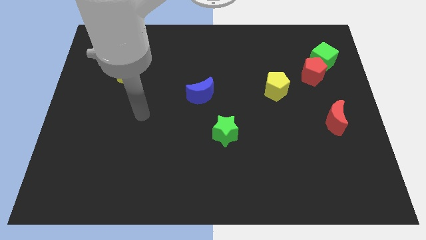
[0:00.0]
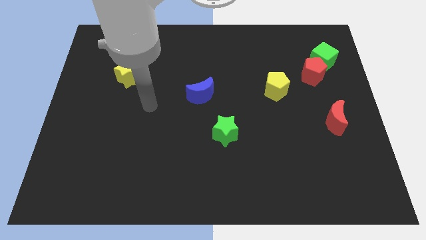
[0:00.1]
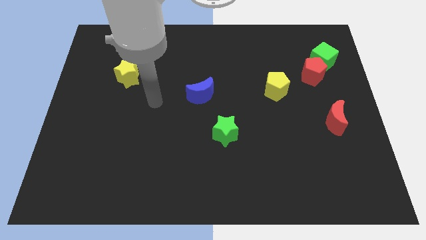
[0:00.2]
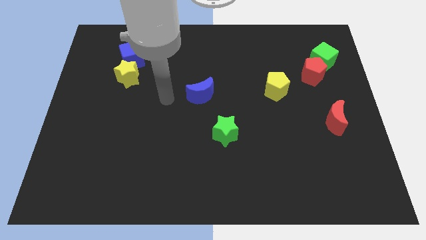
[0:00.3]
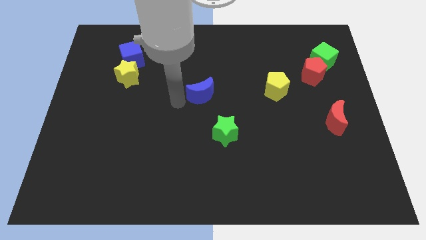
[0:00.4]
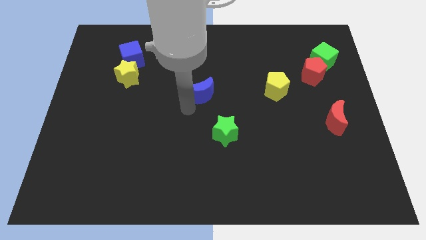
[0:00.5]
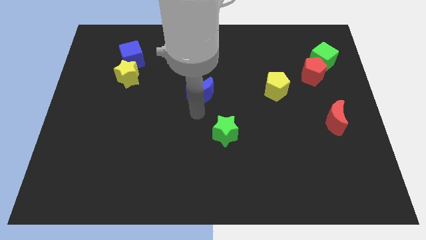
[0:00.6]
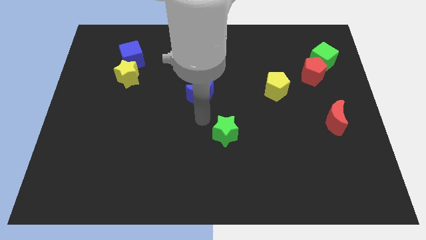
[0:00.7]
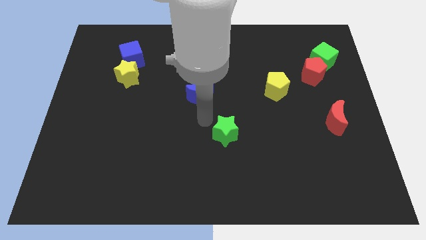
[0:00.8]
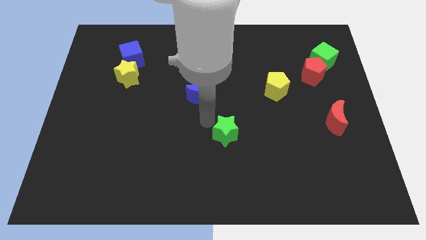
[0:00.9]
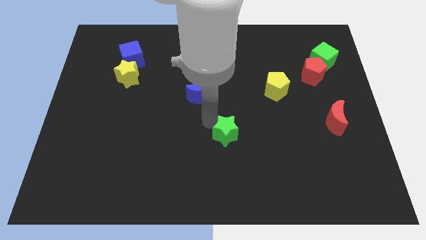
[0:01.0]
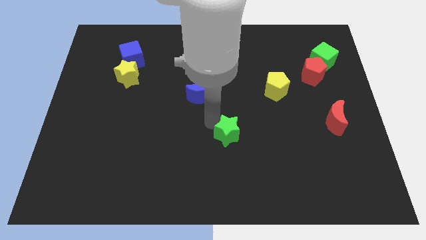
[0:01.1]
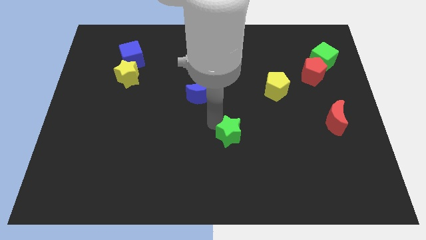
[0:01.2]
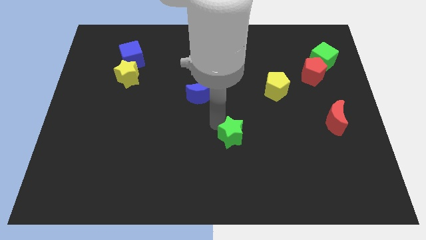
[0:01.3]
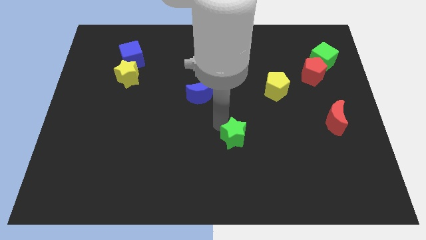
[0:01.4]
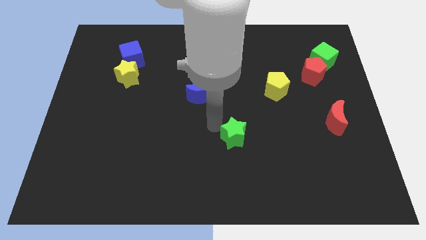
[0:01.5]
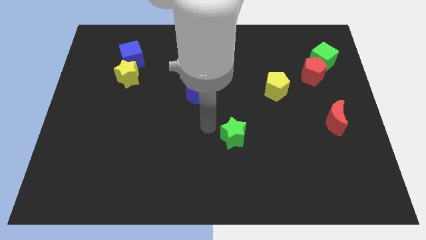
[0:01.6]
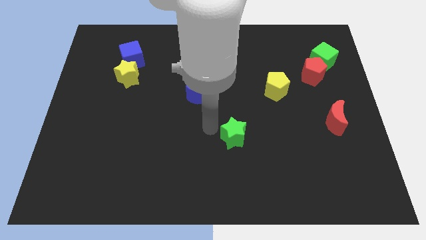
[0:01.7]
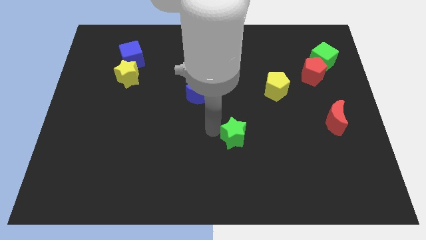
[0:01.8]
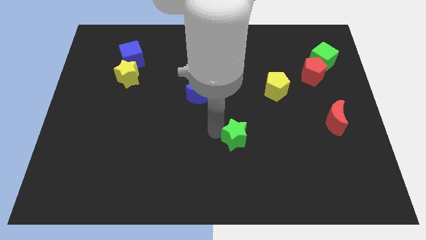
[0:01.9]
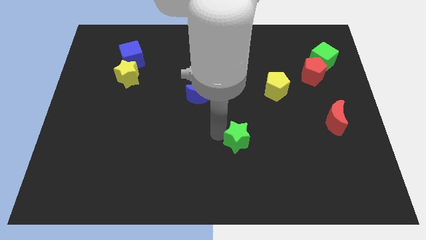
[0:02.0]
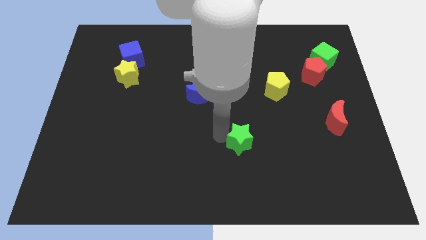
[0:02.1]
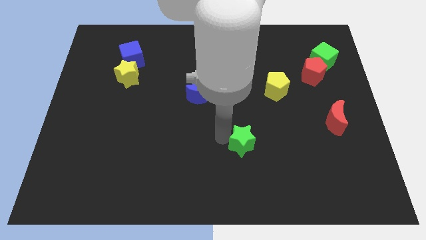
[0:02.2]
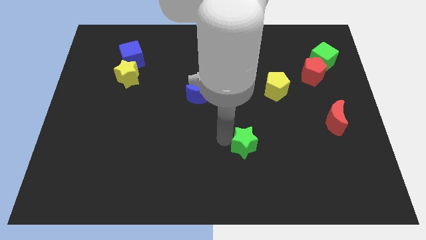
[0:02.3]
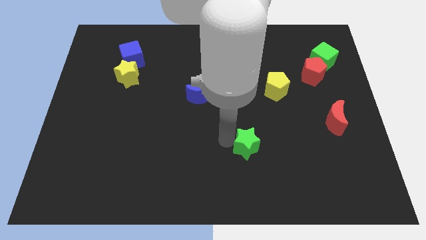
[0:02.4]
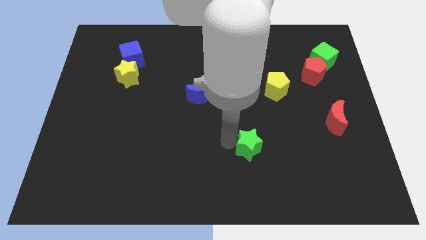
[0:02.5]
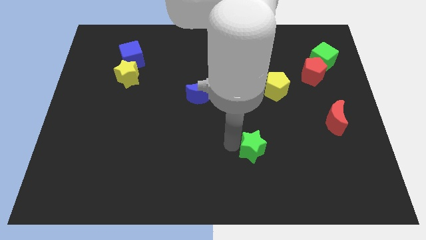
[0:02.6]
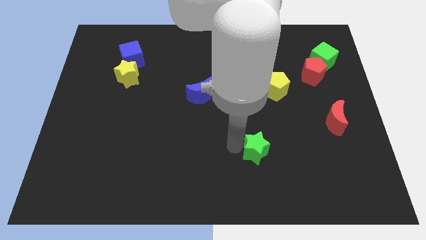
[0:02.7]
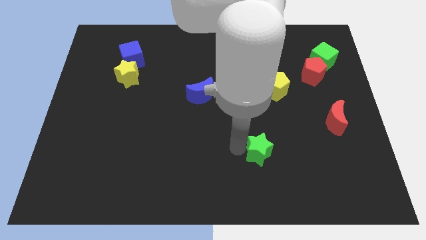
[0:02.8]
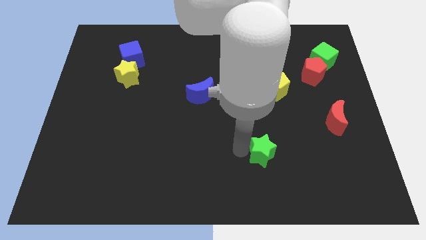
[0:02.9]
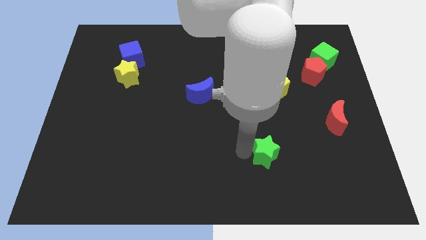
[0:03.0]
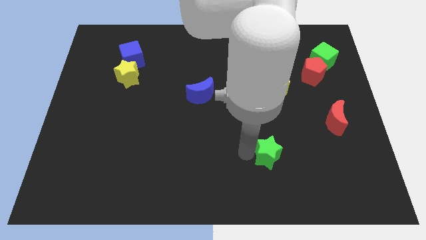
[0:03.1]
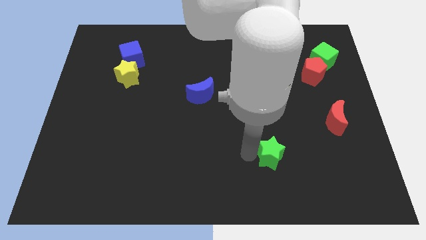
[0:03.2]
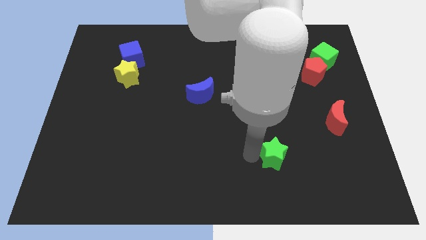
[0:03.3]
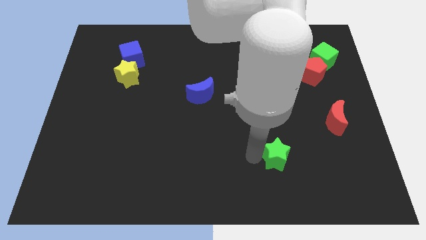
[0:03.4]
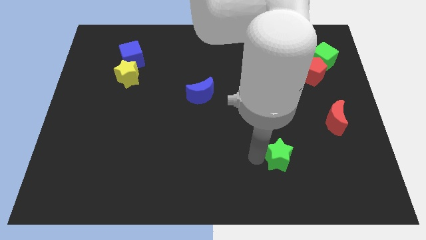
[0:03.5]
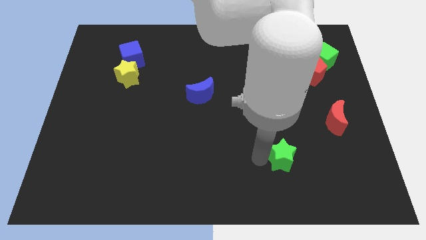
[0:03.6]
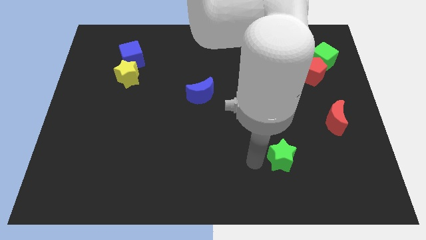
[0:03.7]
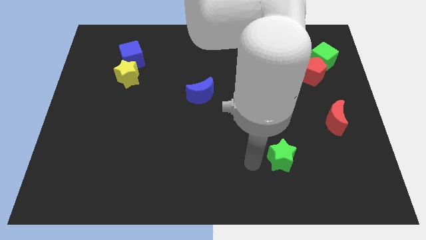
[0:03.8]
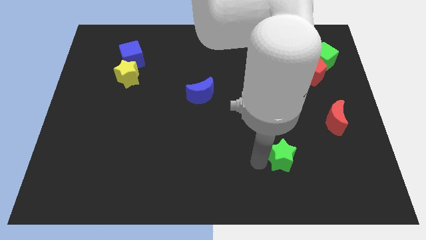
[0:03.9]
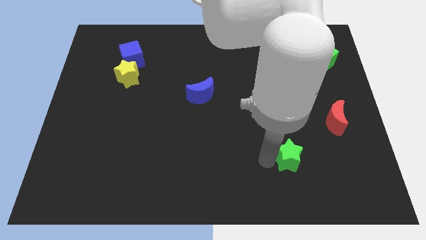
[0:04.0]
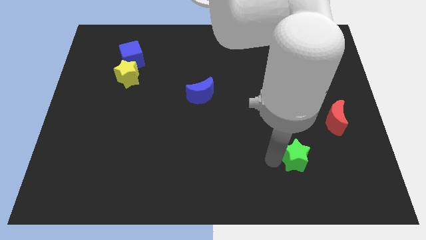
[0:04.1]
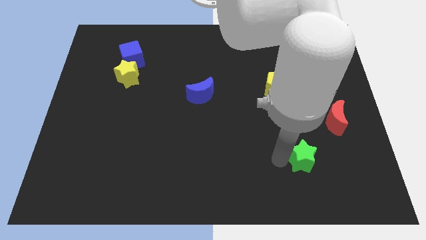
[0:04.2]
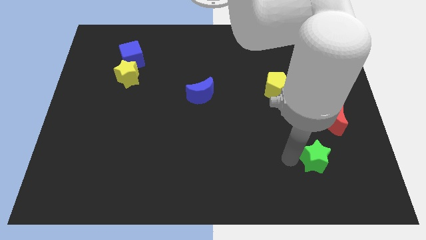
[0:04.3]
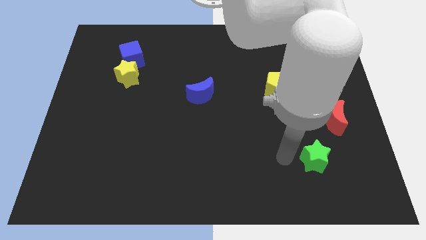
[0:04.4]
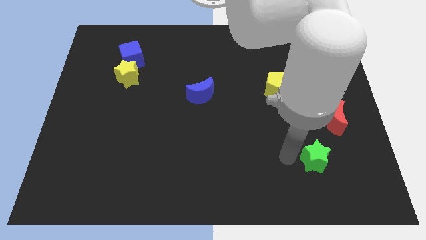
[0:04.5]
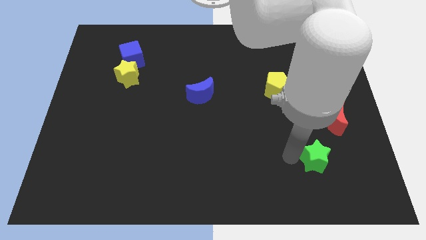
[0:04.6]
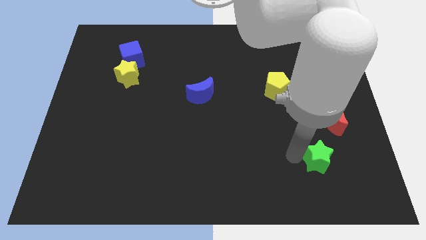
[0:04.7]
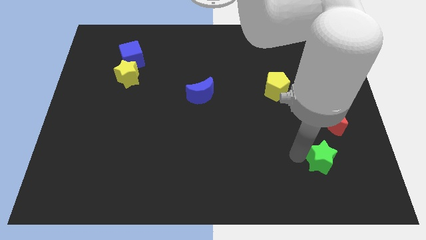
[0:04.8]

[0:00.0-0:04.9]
put the green star to the bottom side of the red moon

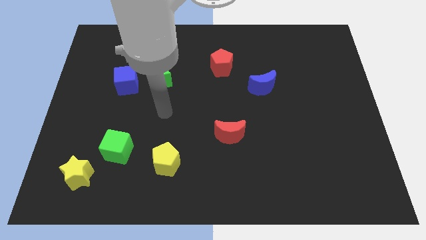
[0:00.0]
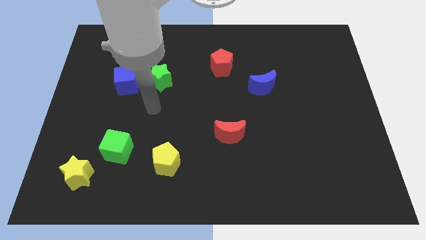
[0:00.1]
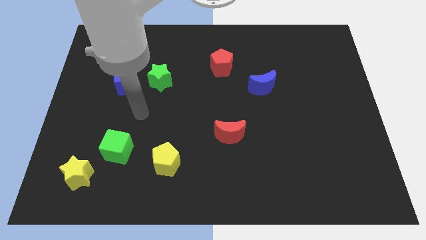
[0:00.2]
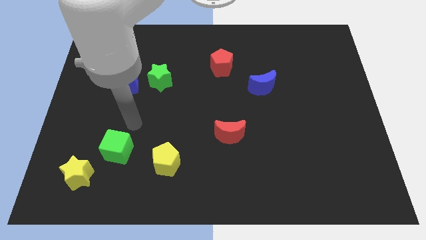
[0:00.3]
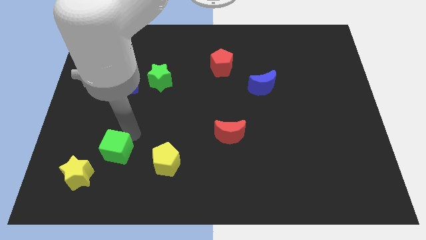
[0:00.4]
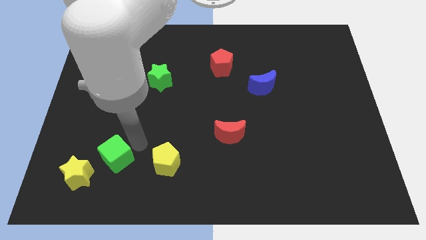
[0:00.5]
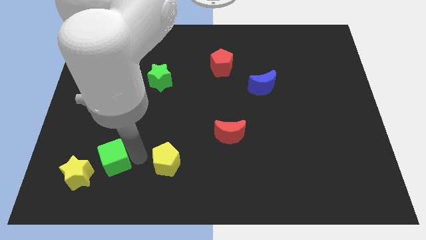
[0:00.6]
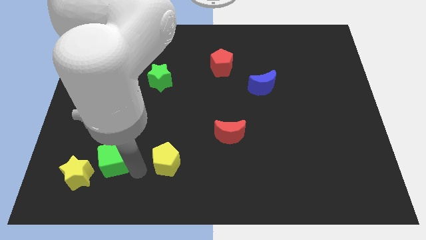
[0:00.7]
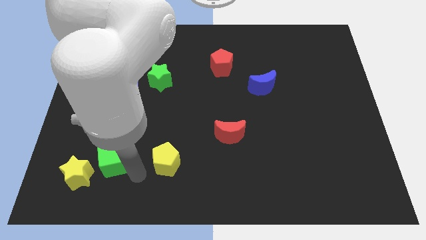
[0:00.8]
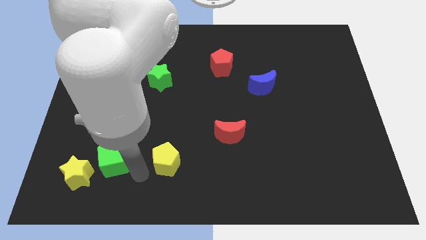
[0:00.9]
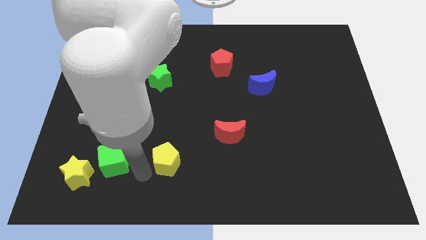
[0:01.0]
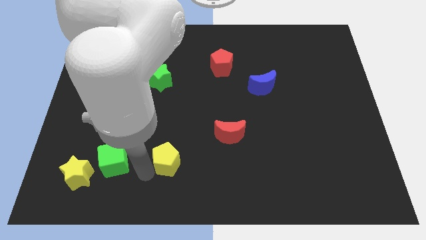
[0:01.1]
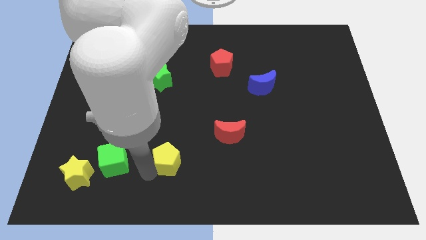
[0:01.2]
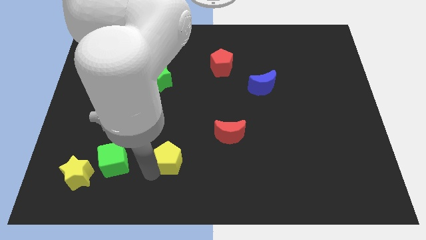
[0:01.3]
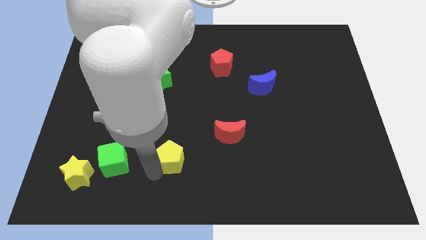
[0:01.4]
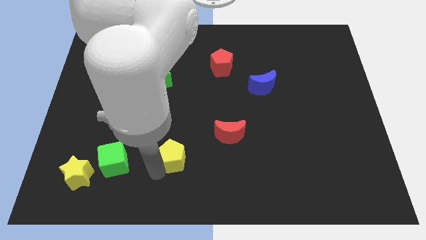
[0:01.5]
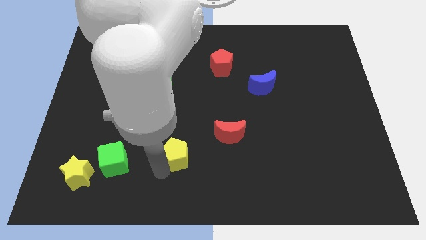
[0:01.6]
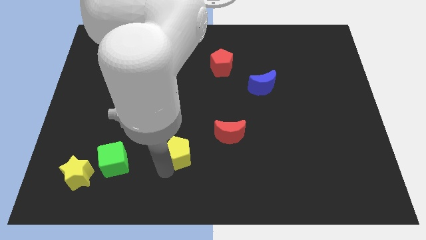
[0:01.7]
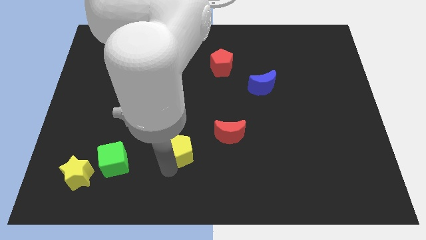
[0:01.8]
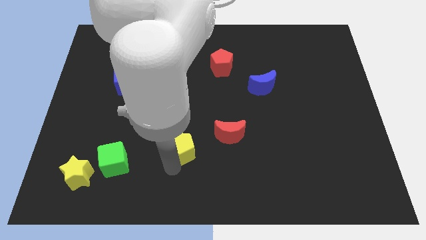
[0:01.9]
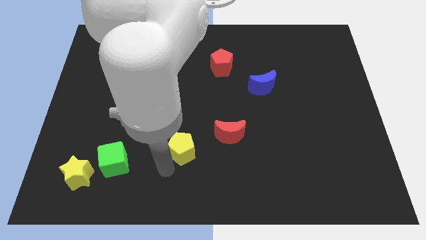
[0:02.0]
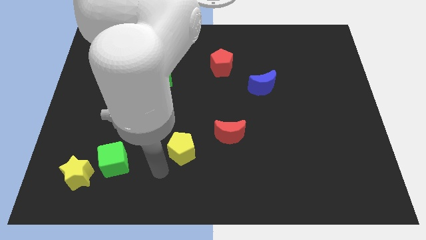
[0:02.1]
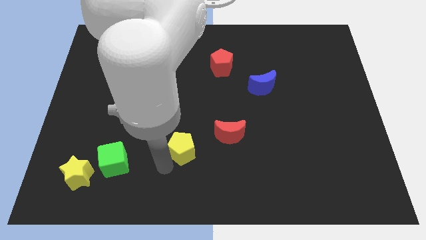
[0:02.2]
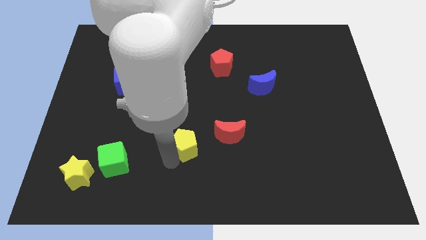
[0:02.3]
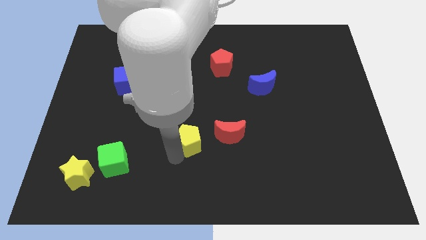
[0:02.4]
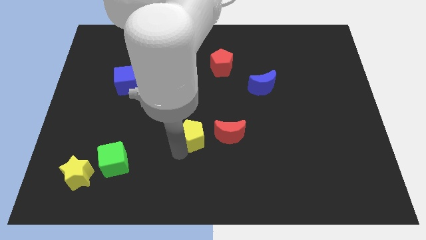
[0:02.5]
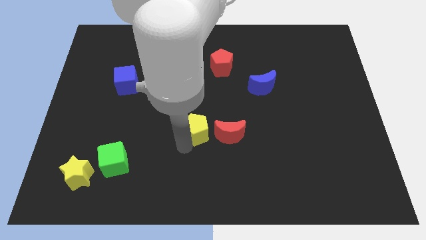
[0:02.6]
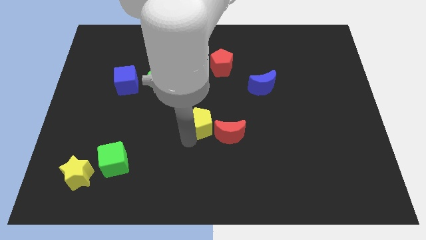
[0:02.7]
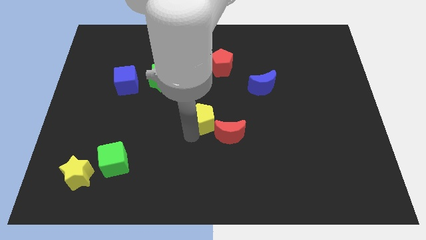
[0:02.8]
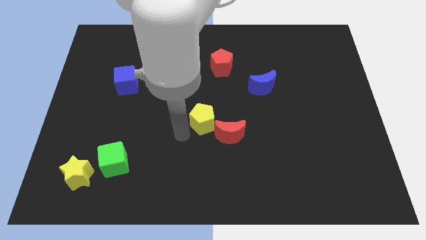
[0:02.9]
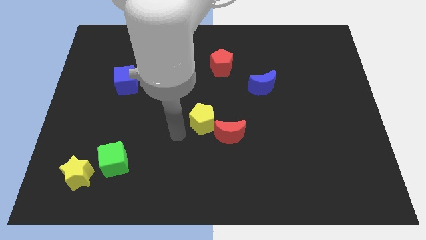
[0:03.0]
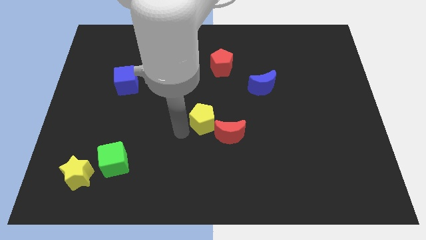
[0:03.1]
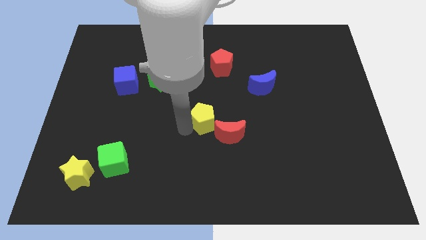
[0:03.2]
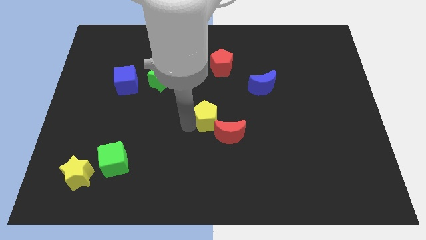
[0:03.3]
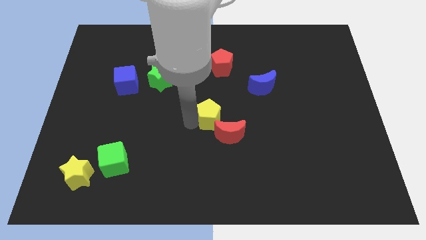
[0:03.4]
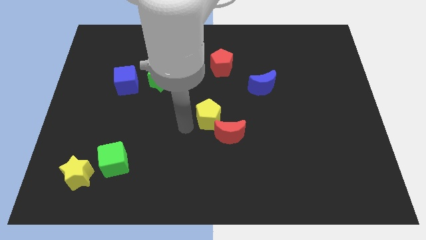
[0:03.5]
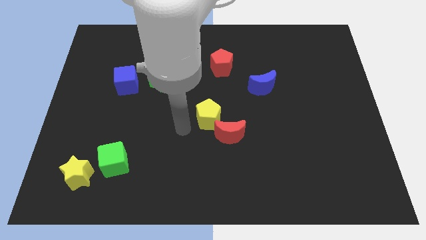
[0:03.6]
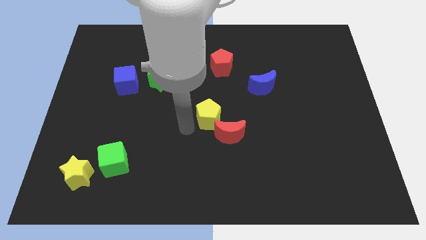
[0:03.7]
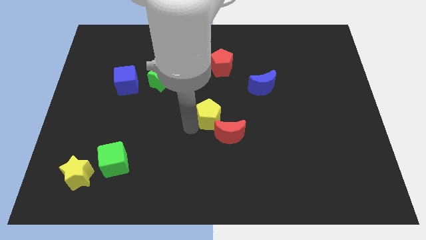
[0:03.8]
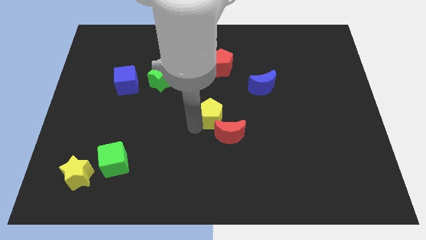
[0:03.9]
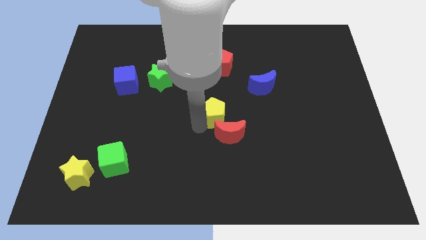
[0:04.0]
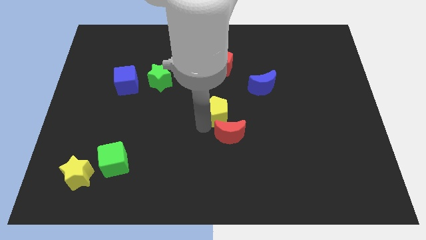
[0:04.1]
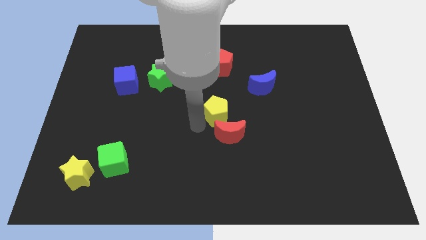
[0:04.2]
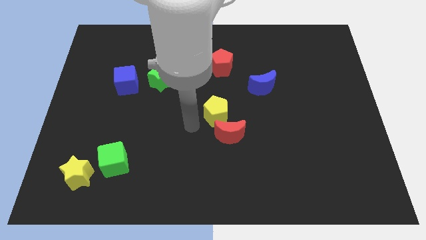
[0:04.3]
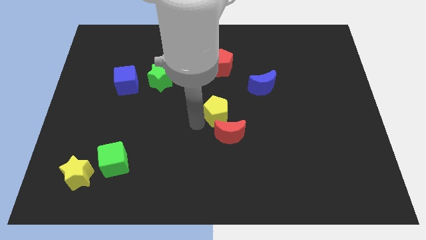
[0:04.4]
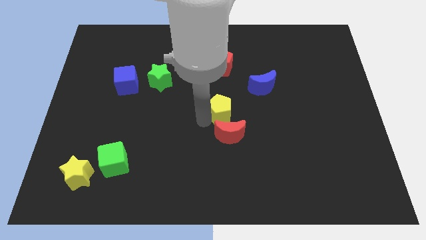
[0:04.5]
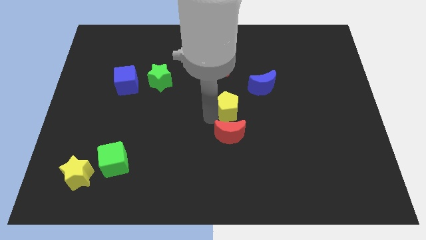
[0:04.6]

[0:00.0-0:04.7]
move the yellow pentagon diagonally down and to the left of the blue moon
